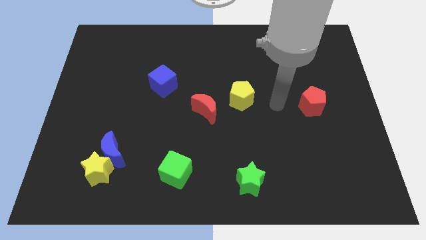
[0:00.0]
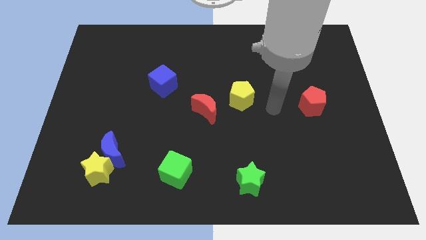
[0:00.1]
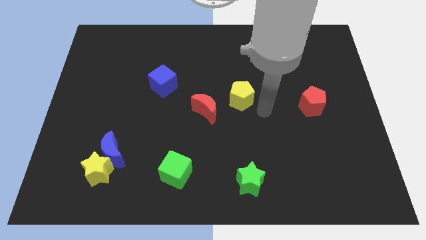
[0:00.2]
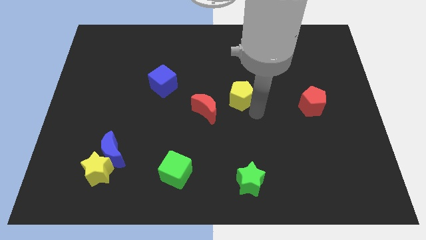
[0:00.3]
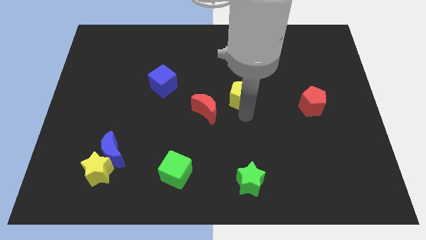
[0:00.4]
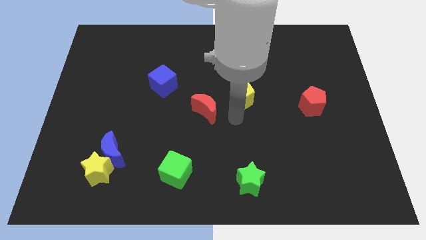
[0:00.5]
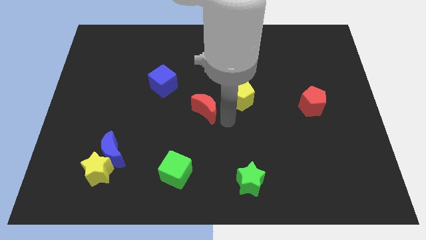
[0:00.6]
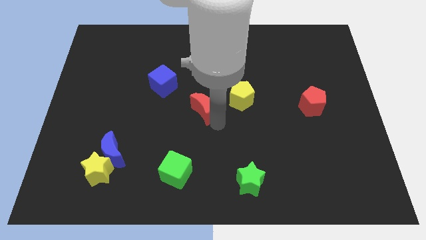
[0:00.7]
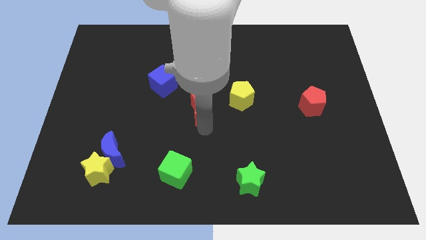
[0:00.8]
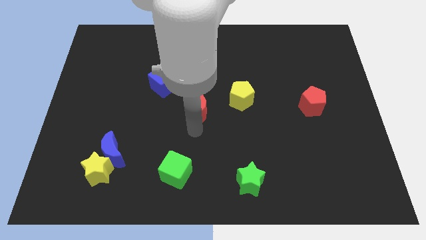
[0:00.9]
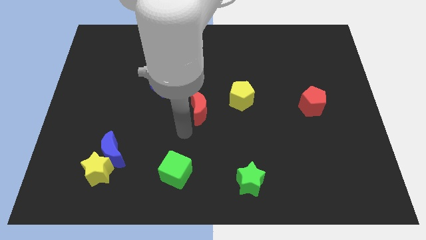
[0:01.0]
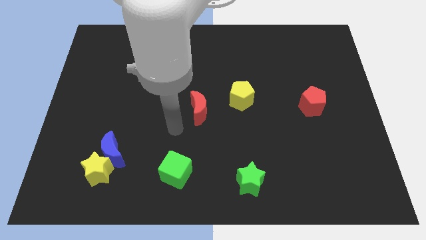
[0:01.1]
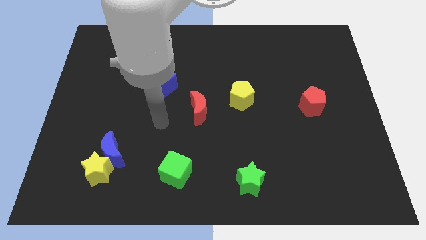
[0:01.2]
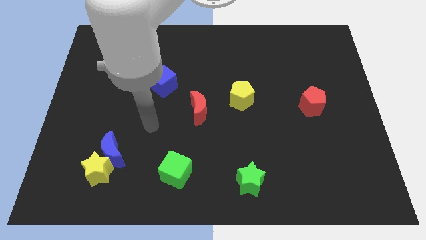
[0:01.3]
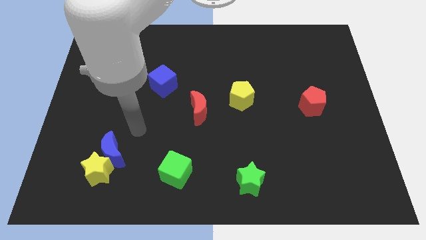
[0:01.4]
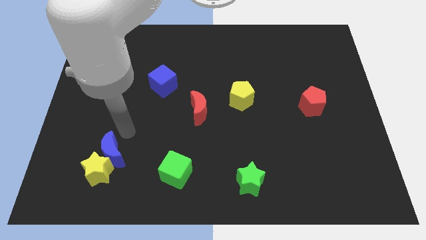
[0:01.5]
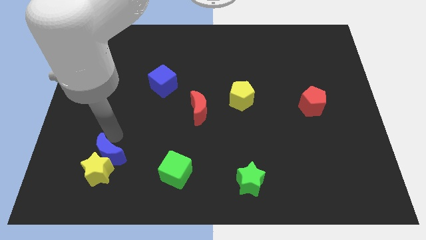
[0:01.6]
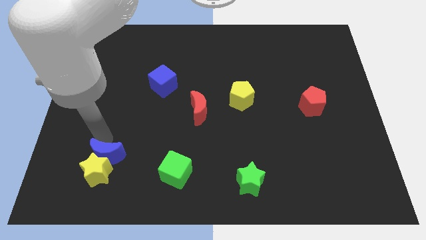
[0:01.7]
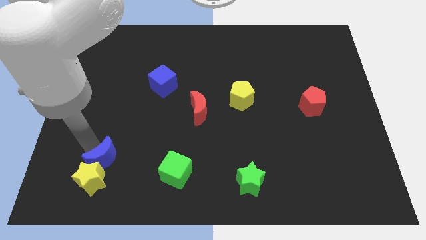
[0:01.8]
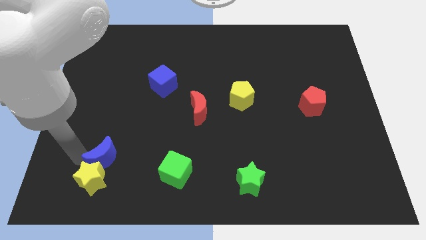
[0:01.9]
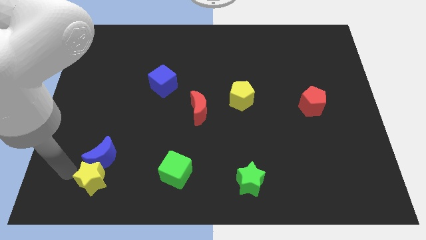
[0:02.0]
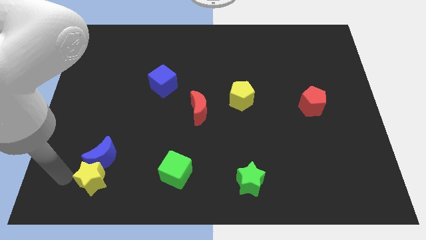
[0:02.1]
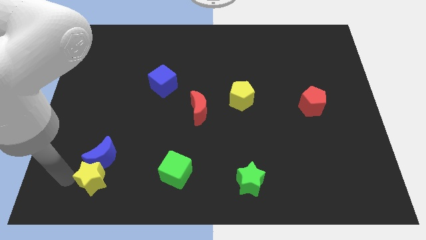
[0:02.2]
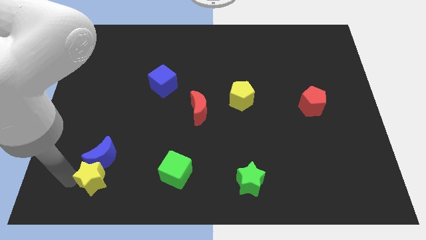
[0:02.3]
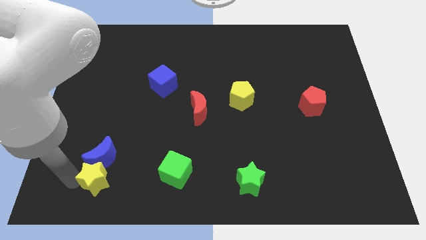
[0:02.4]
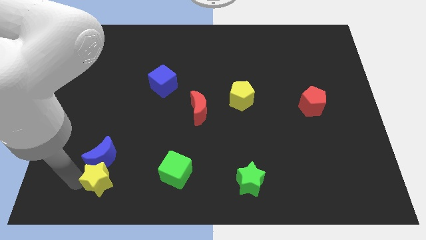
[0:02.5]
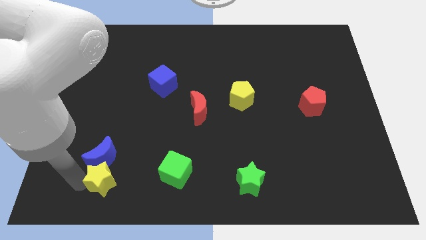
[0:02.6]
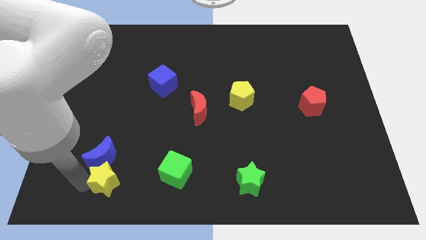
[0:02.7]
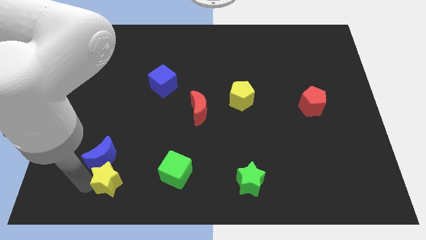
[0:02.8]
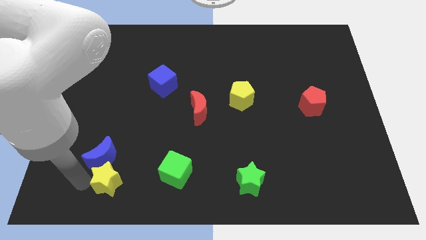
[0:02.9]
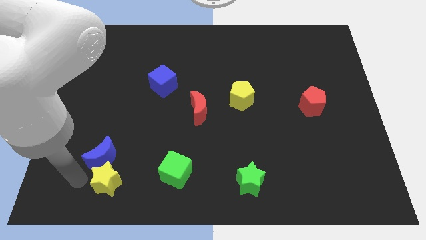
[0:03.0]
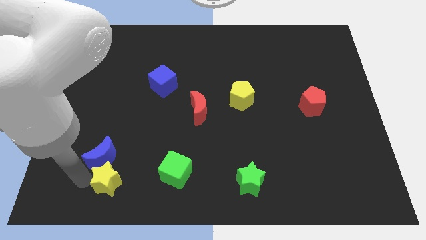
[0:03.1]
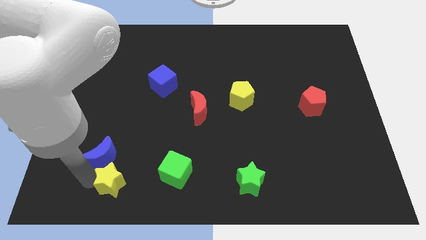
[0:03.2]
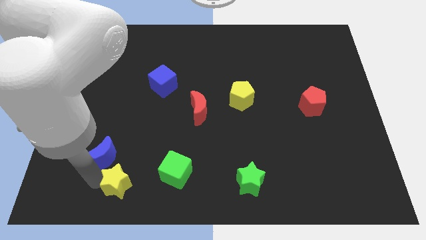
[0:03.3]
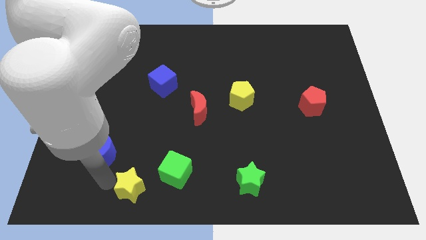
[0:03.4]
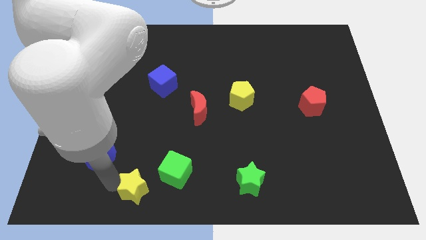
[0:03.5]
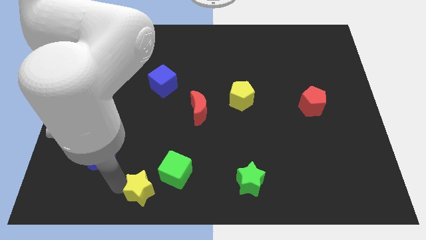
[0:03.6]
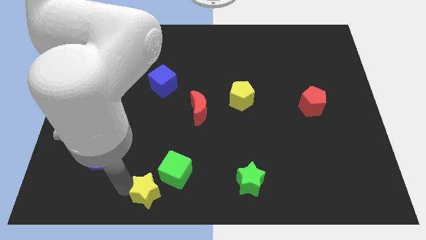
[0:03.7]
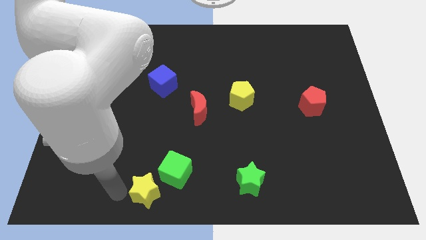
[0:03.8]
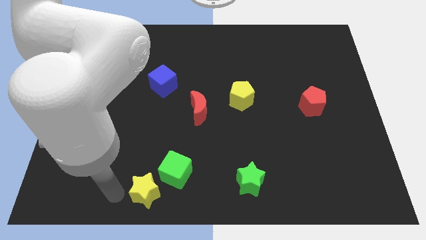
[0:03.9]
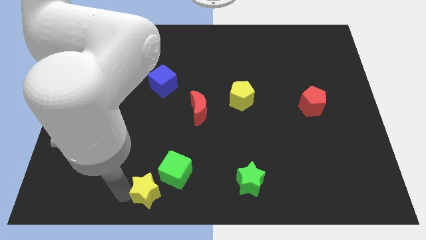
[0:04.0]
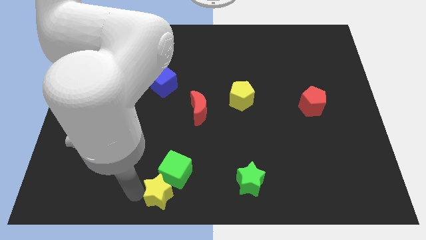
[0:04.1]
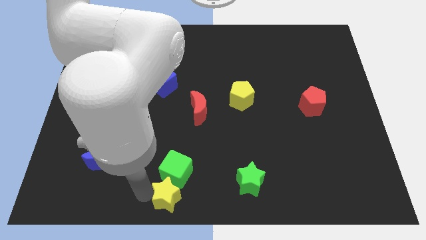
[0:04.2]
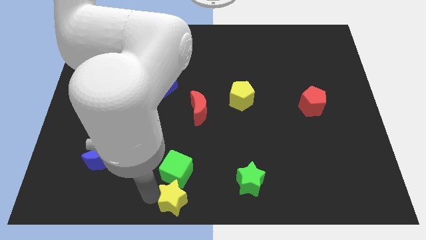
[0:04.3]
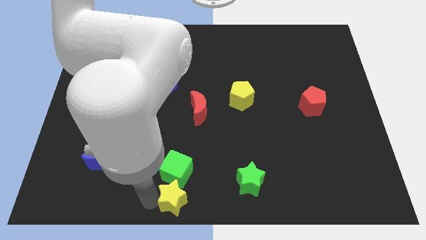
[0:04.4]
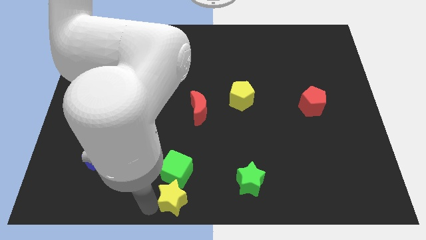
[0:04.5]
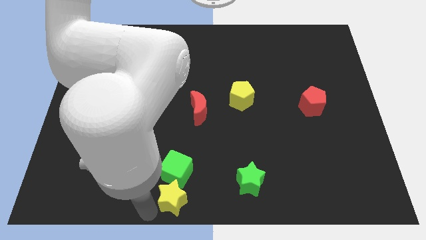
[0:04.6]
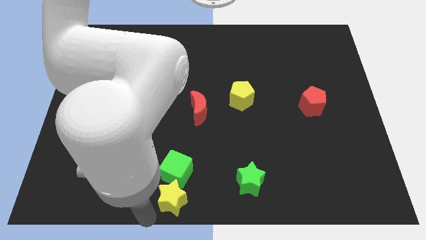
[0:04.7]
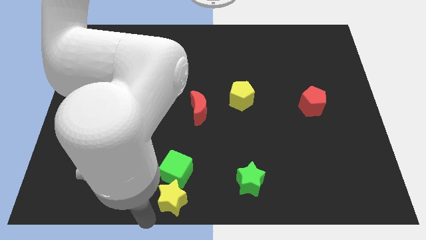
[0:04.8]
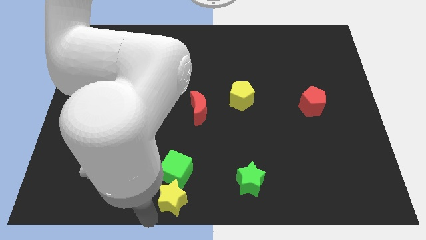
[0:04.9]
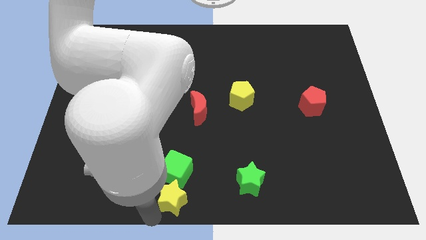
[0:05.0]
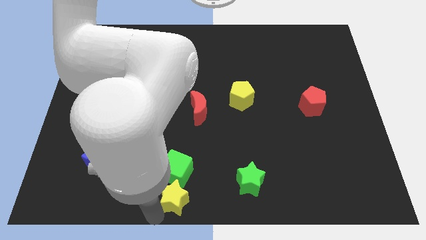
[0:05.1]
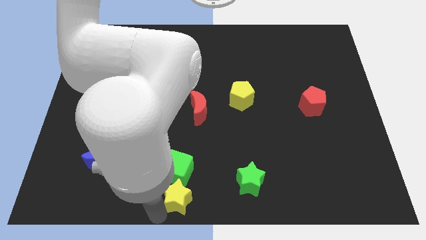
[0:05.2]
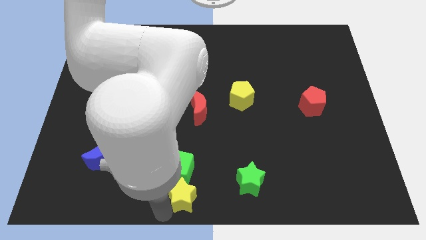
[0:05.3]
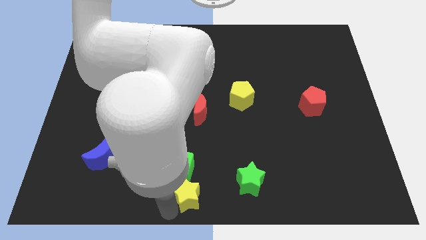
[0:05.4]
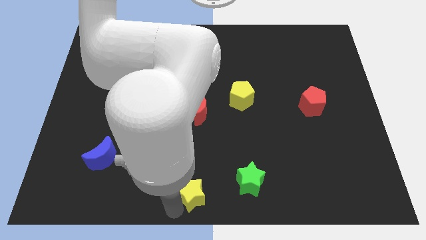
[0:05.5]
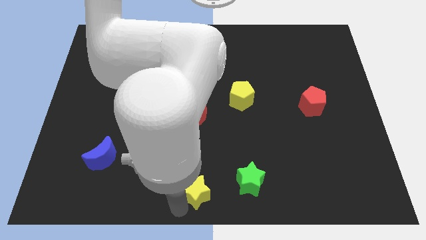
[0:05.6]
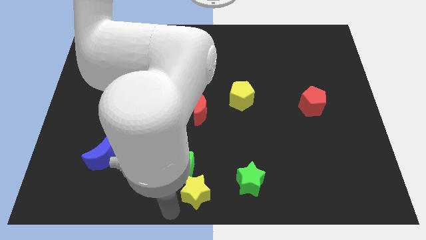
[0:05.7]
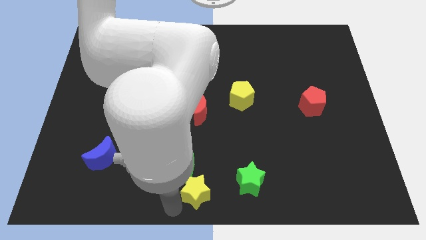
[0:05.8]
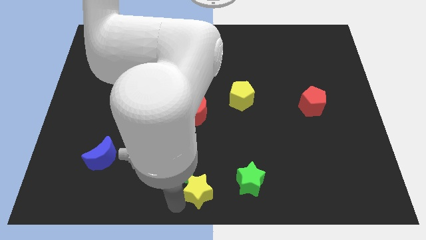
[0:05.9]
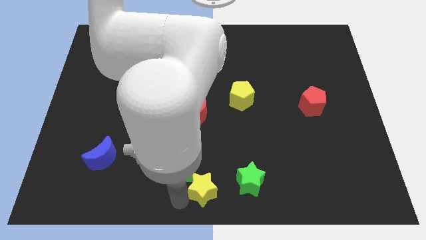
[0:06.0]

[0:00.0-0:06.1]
push the yellow star right of the green cube

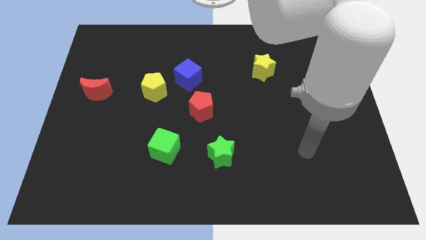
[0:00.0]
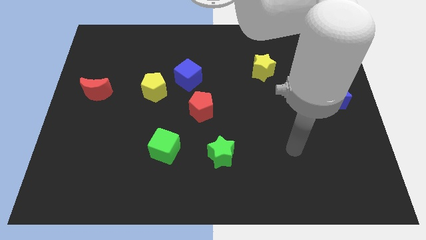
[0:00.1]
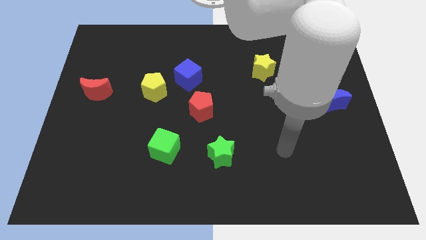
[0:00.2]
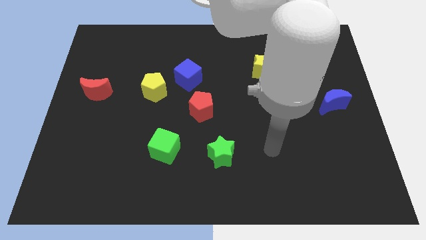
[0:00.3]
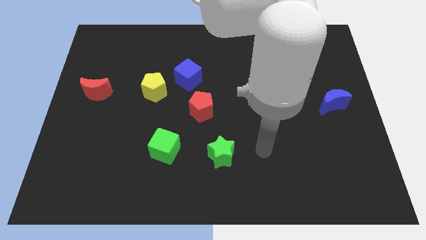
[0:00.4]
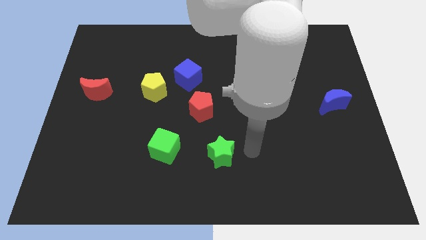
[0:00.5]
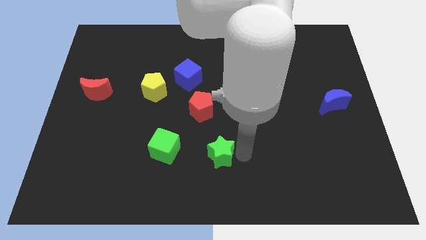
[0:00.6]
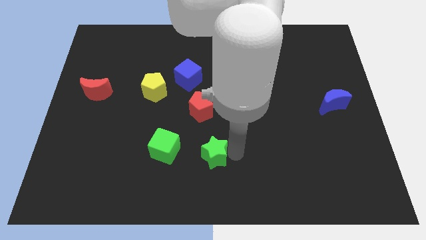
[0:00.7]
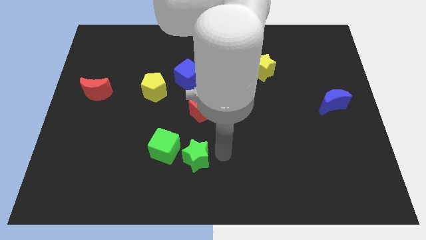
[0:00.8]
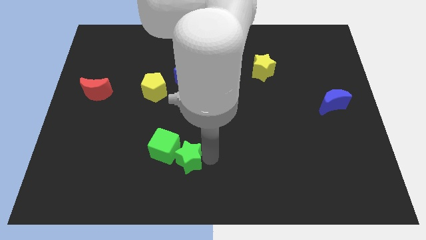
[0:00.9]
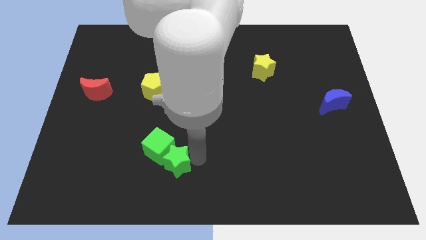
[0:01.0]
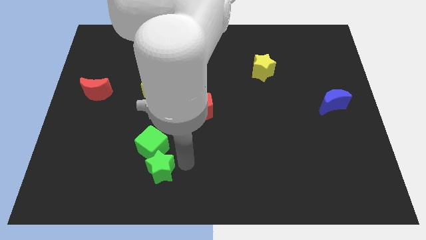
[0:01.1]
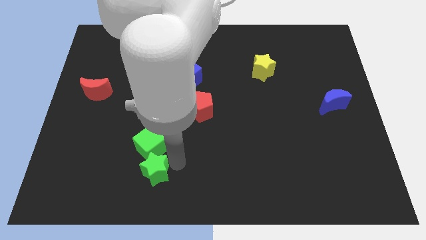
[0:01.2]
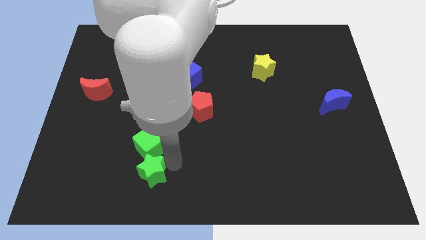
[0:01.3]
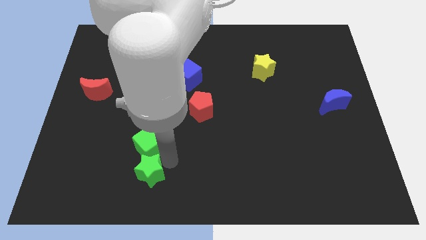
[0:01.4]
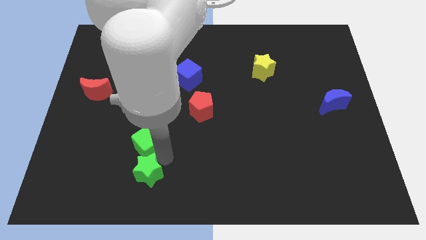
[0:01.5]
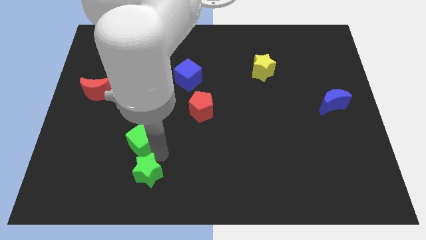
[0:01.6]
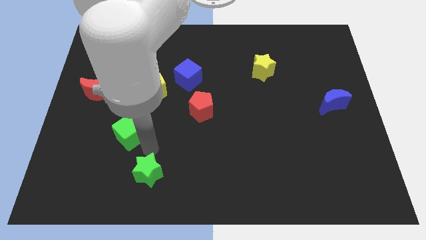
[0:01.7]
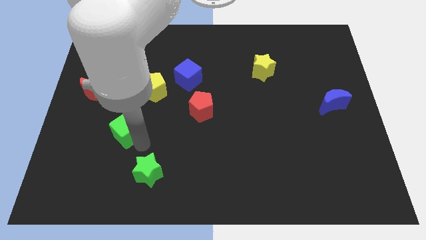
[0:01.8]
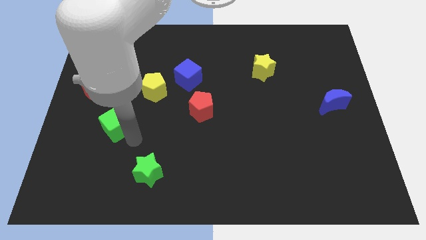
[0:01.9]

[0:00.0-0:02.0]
put the green cube to the bottom right side of the red moon
